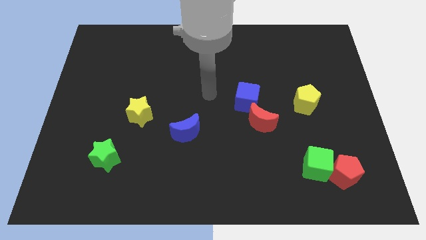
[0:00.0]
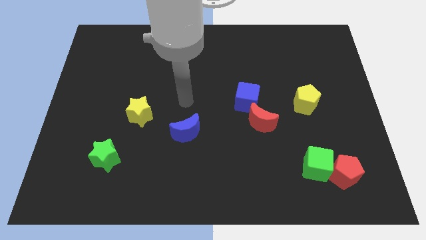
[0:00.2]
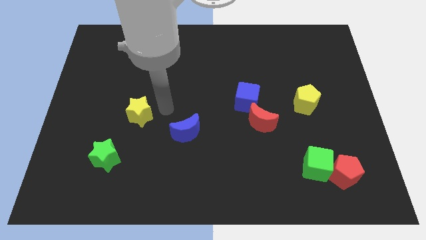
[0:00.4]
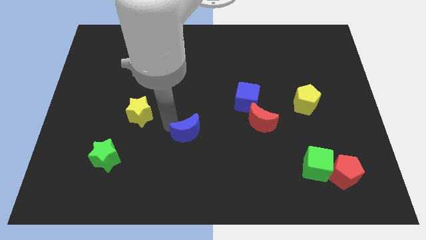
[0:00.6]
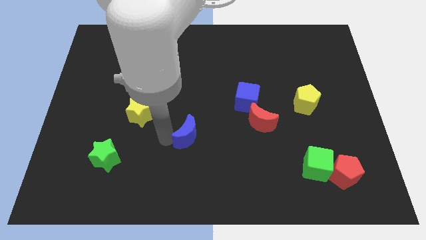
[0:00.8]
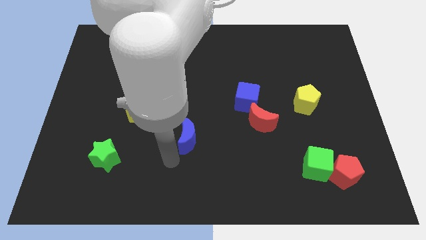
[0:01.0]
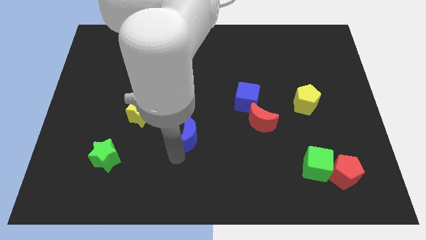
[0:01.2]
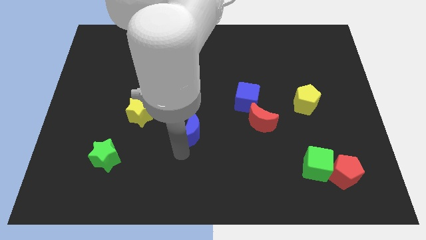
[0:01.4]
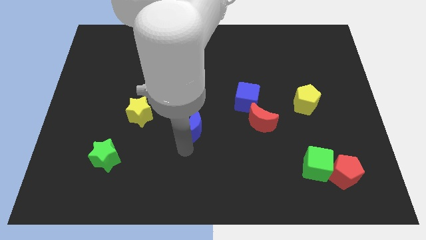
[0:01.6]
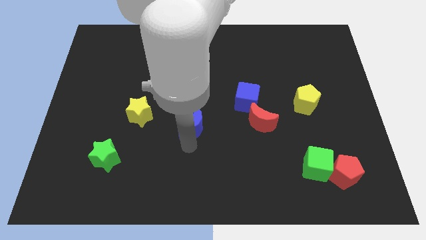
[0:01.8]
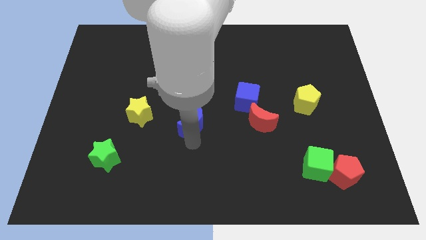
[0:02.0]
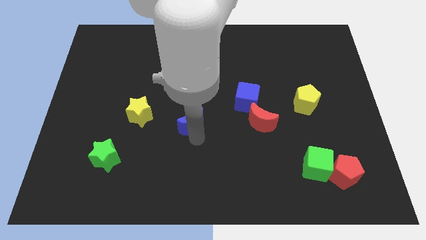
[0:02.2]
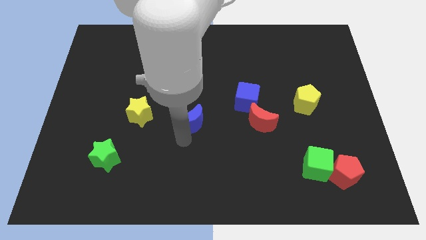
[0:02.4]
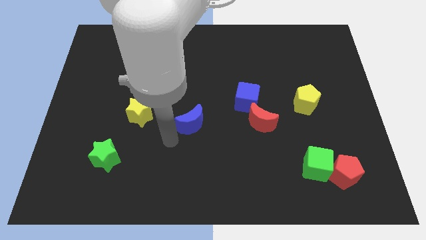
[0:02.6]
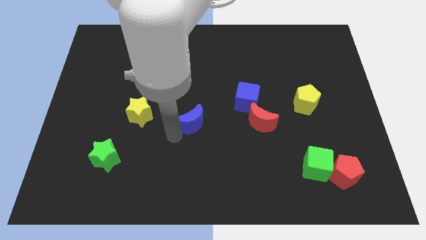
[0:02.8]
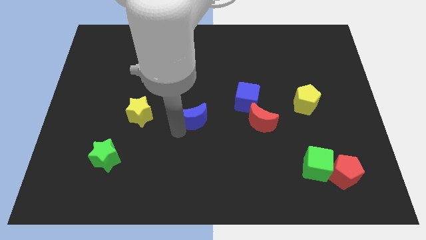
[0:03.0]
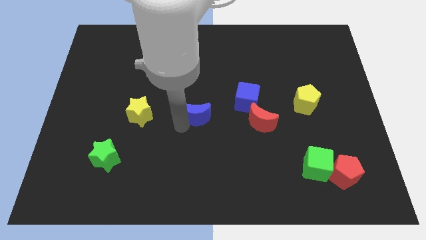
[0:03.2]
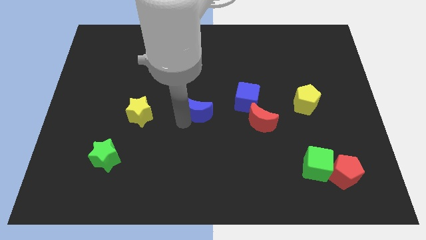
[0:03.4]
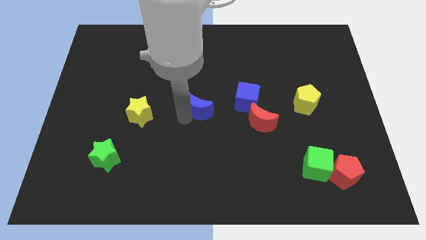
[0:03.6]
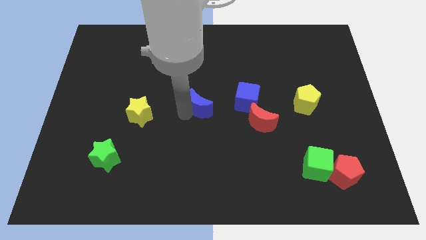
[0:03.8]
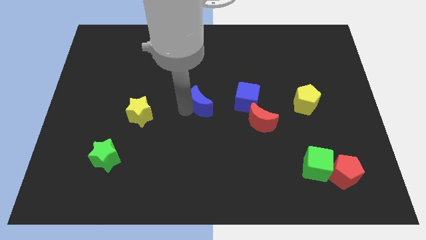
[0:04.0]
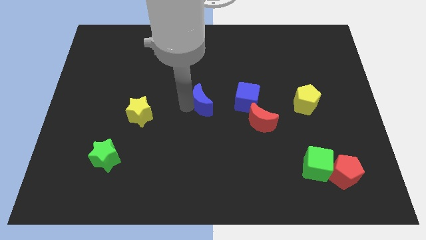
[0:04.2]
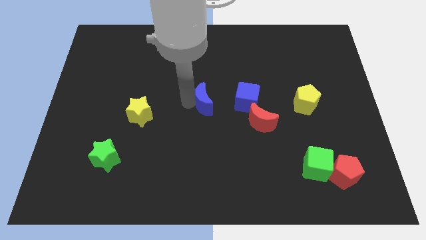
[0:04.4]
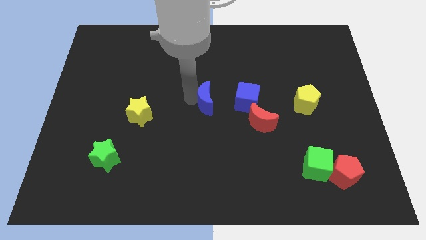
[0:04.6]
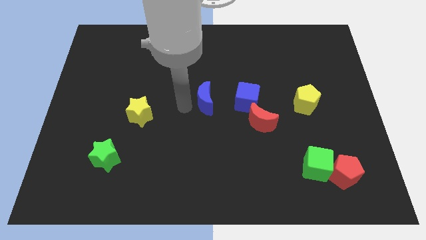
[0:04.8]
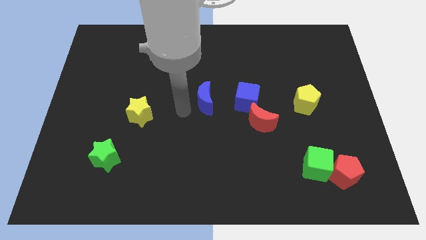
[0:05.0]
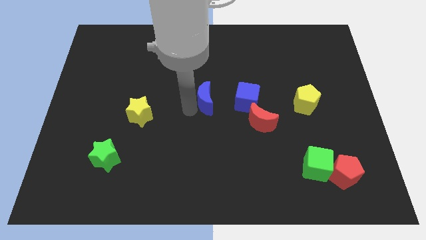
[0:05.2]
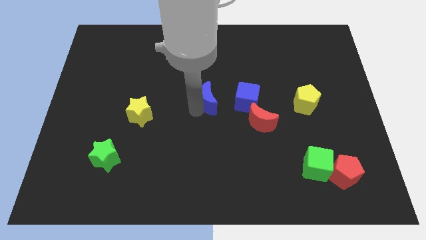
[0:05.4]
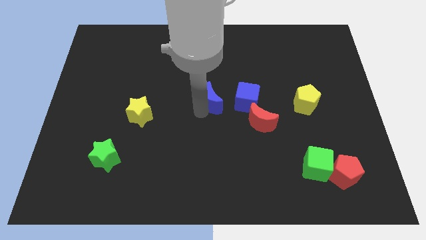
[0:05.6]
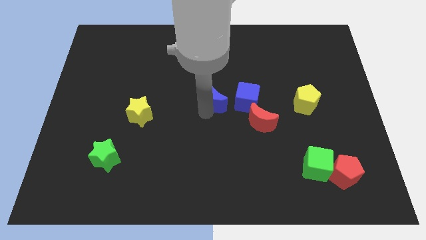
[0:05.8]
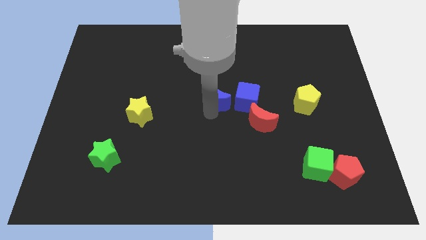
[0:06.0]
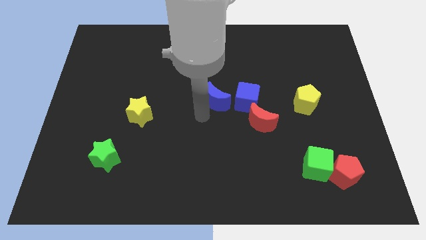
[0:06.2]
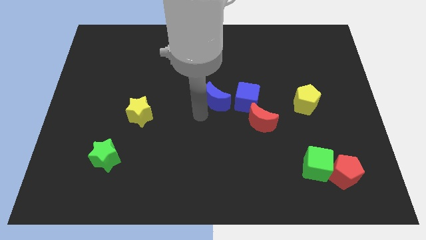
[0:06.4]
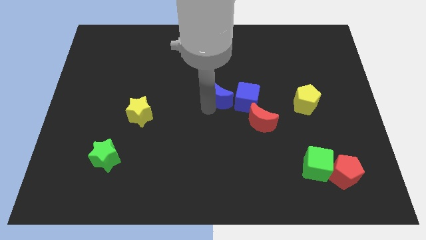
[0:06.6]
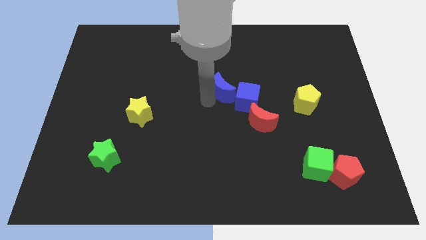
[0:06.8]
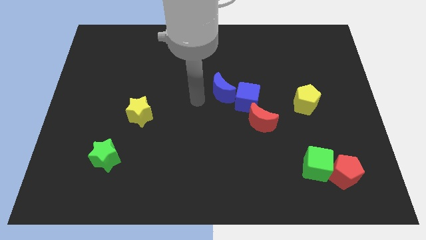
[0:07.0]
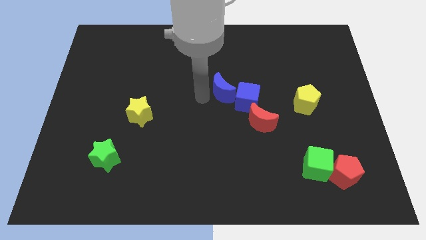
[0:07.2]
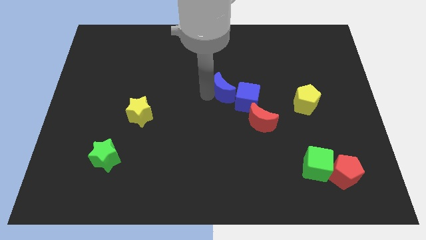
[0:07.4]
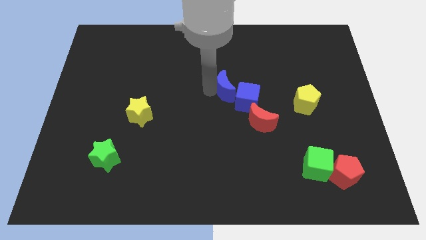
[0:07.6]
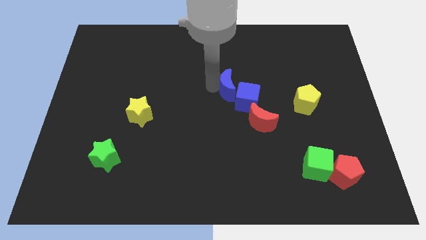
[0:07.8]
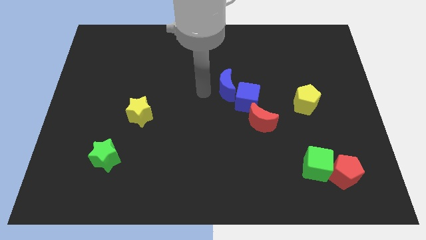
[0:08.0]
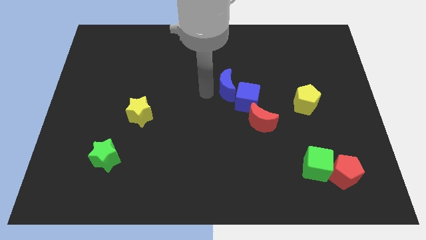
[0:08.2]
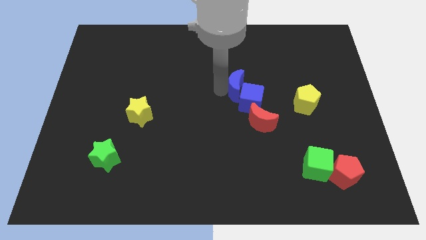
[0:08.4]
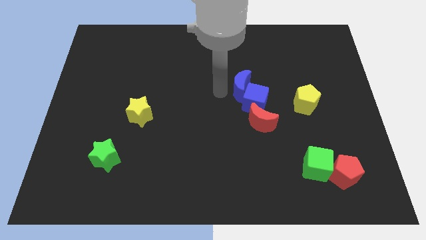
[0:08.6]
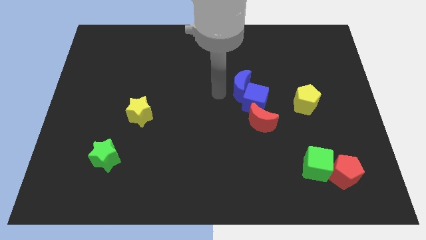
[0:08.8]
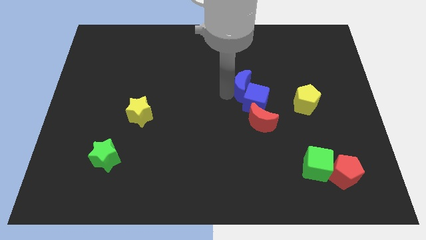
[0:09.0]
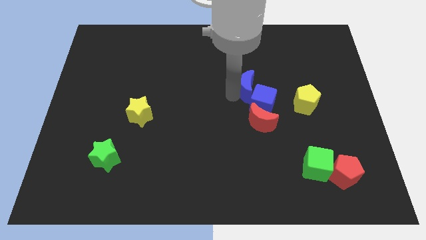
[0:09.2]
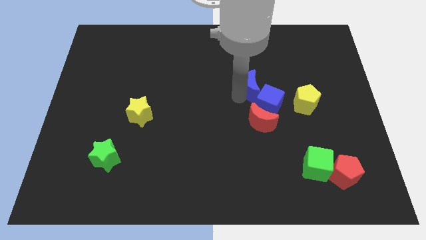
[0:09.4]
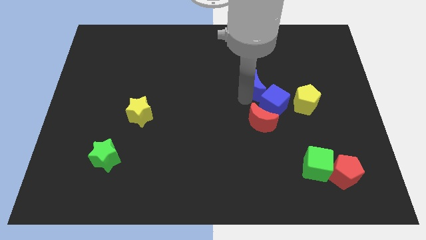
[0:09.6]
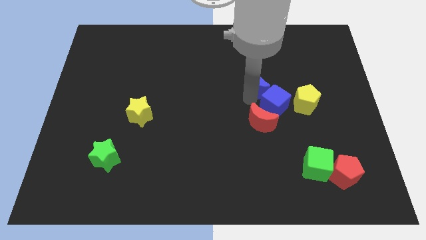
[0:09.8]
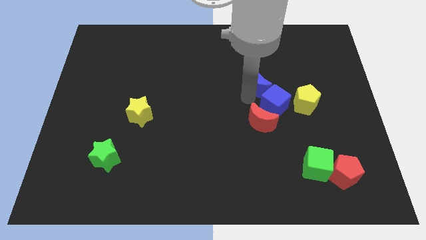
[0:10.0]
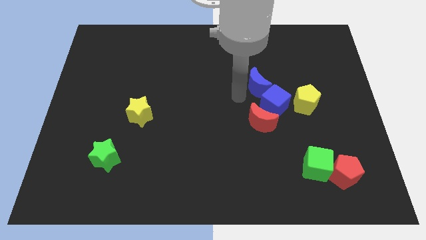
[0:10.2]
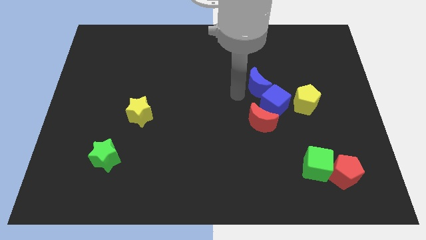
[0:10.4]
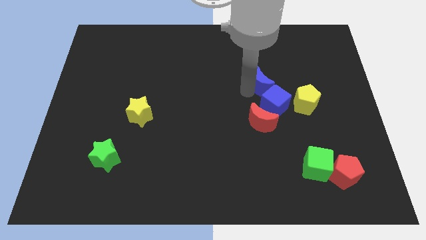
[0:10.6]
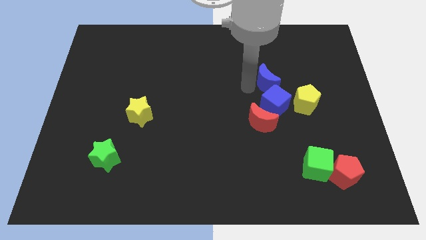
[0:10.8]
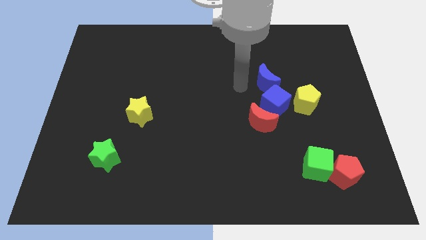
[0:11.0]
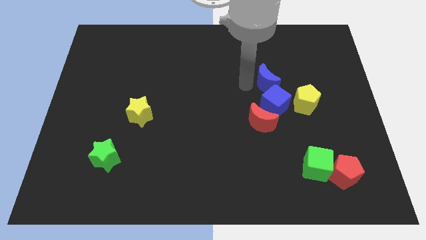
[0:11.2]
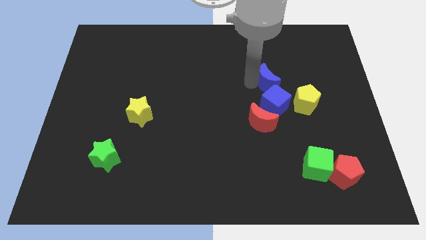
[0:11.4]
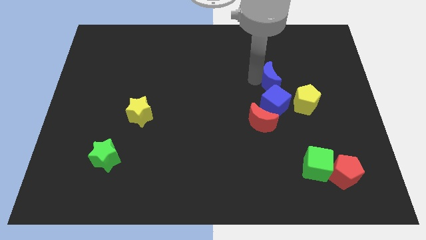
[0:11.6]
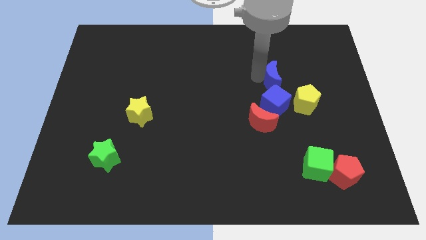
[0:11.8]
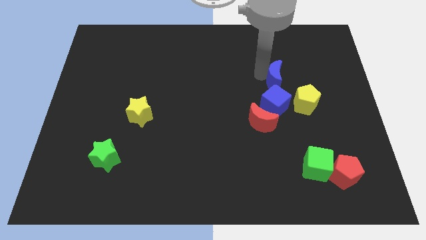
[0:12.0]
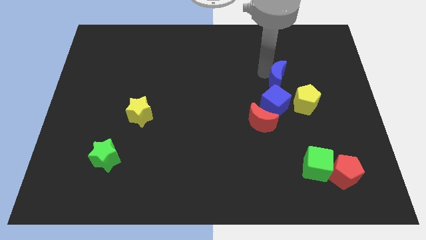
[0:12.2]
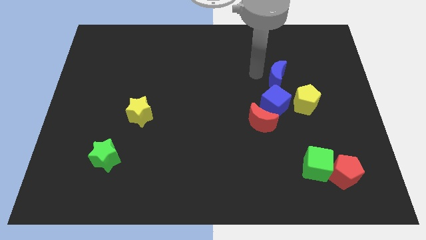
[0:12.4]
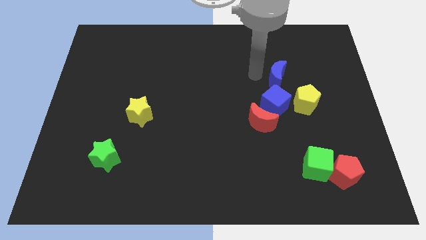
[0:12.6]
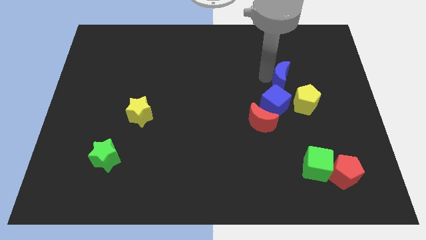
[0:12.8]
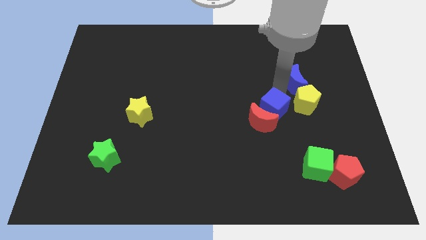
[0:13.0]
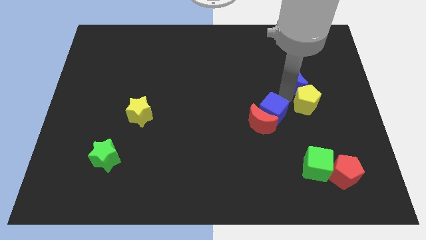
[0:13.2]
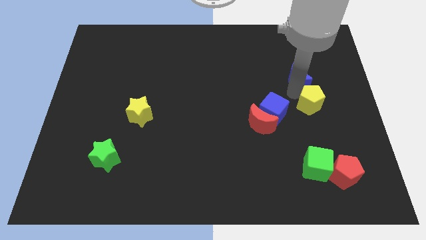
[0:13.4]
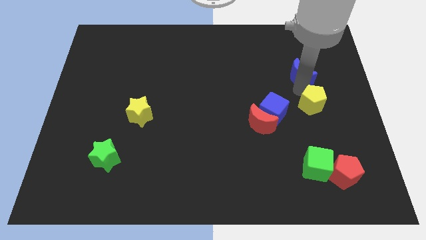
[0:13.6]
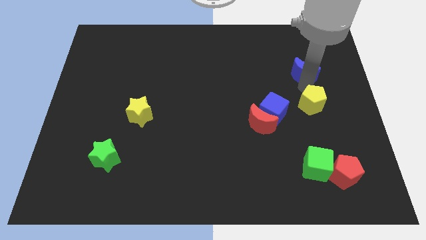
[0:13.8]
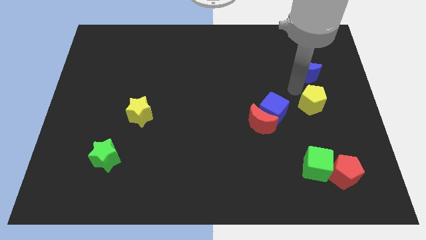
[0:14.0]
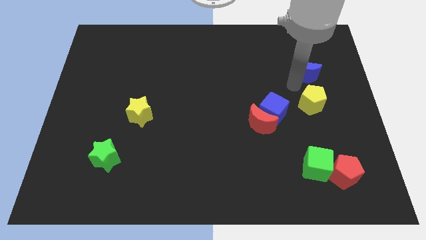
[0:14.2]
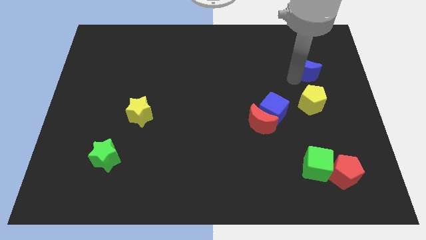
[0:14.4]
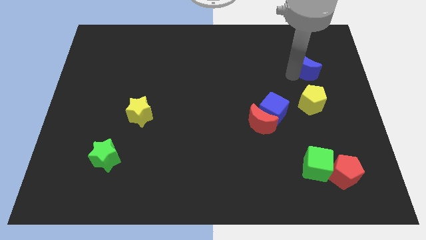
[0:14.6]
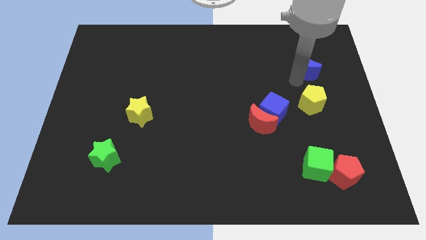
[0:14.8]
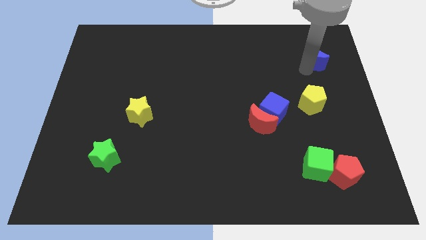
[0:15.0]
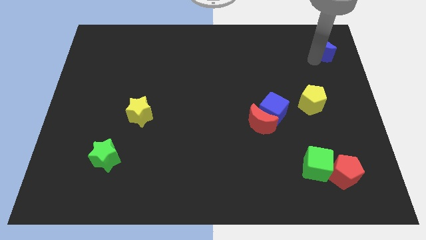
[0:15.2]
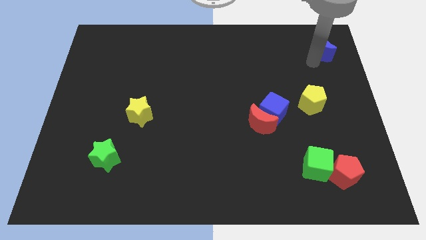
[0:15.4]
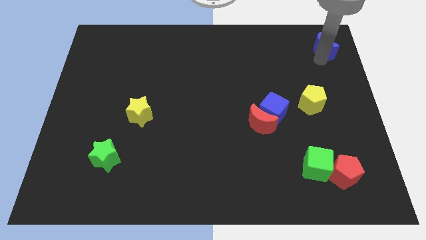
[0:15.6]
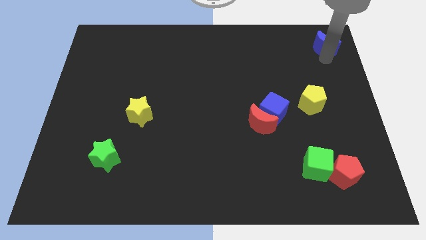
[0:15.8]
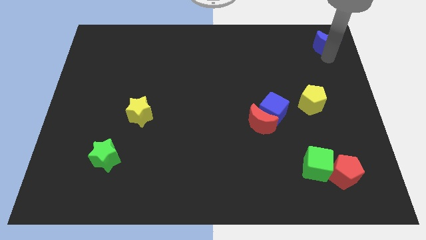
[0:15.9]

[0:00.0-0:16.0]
push the blue moon to the top right
